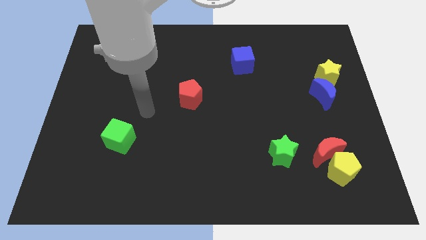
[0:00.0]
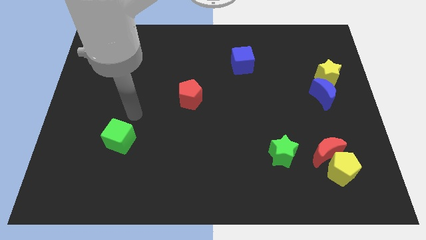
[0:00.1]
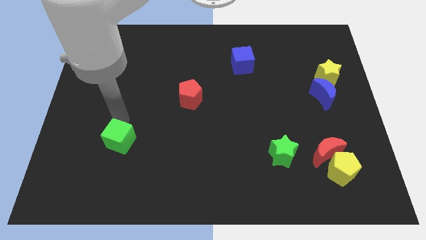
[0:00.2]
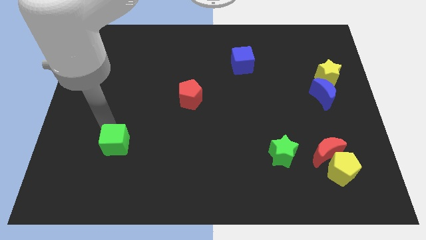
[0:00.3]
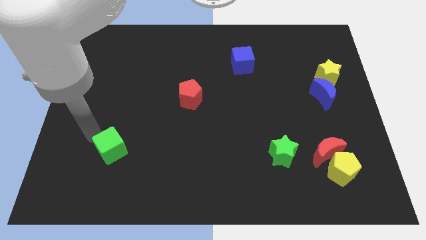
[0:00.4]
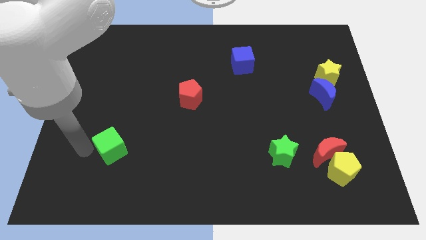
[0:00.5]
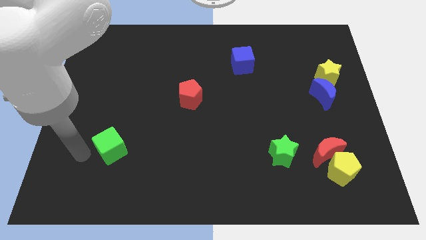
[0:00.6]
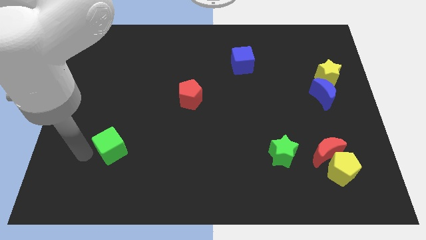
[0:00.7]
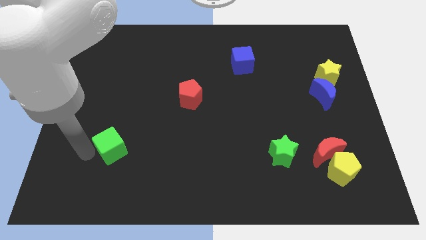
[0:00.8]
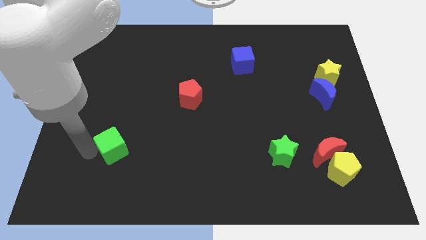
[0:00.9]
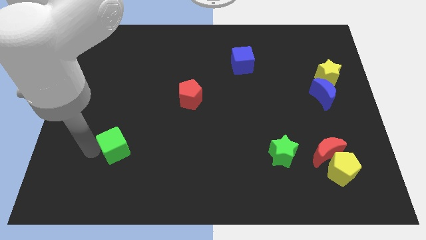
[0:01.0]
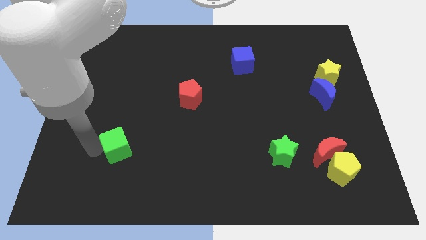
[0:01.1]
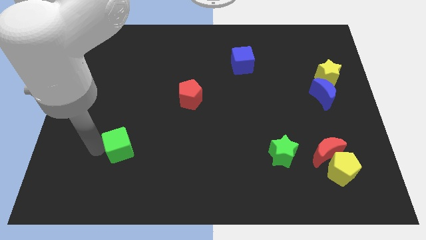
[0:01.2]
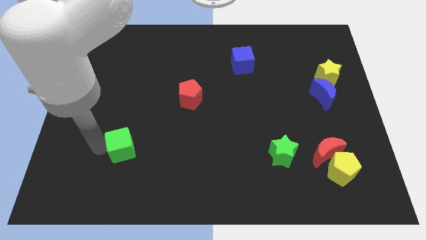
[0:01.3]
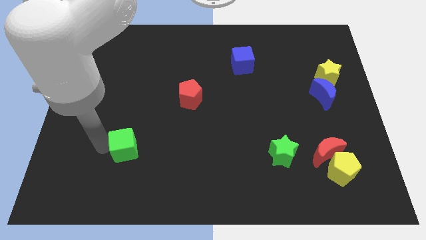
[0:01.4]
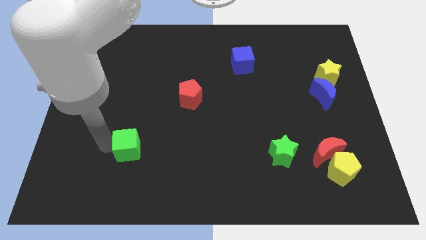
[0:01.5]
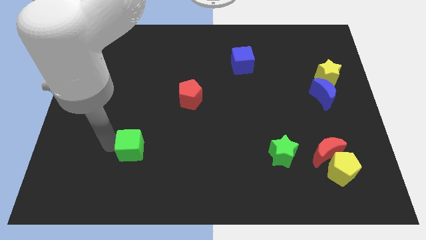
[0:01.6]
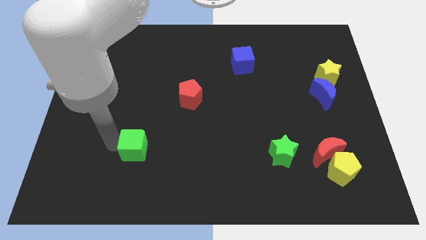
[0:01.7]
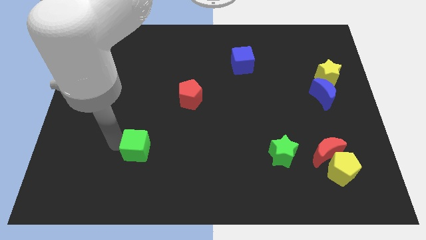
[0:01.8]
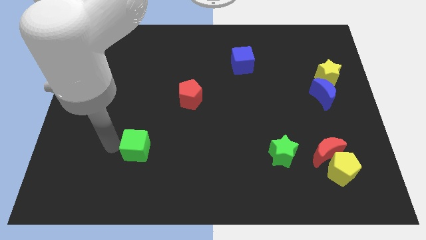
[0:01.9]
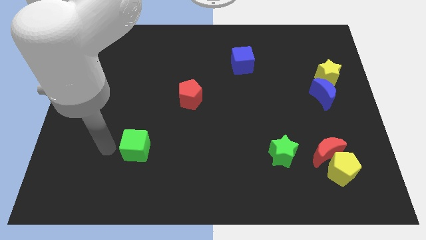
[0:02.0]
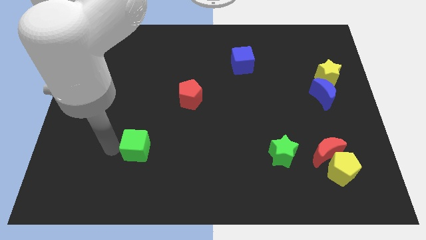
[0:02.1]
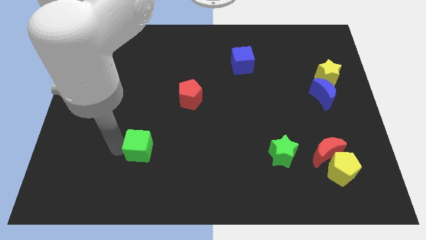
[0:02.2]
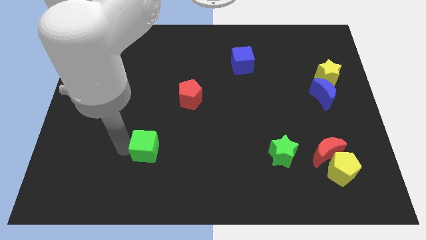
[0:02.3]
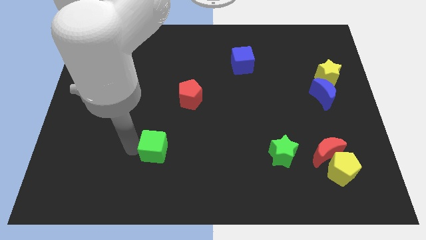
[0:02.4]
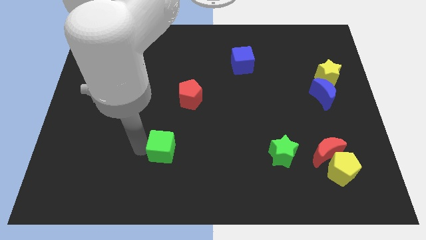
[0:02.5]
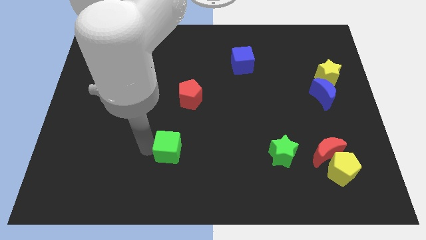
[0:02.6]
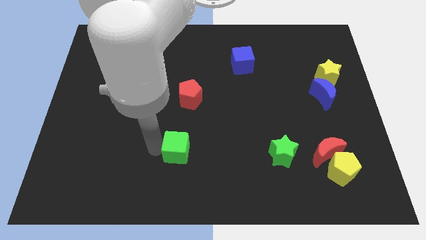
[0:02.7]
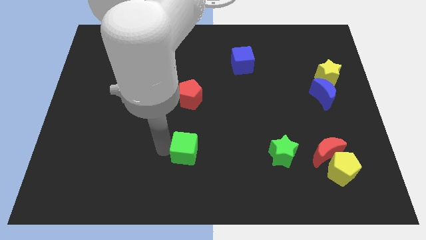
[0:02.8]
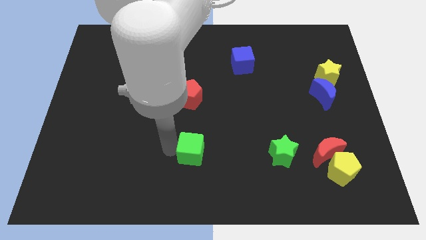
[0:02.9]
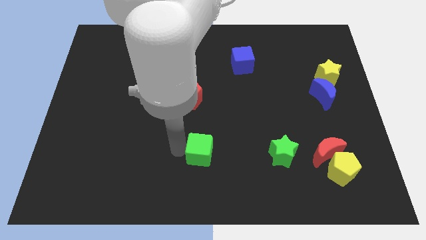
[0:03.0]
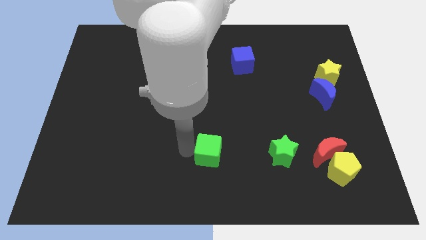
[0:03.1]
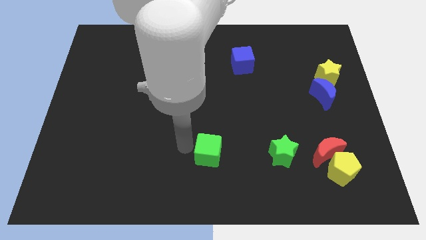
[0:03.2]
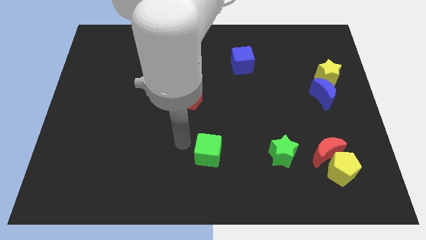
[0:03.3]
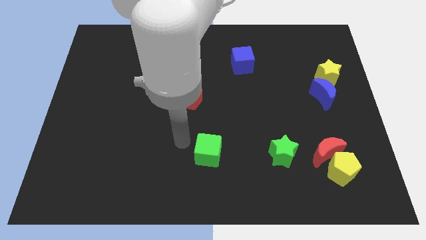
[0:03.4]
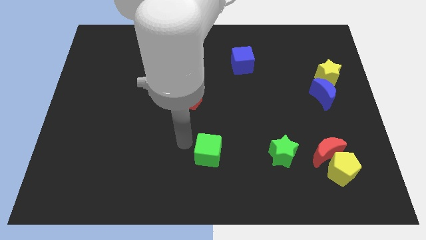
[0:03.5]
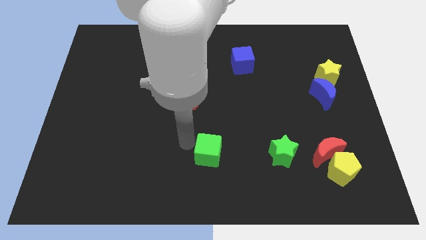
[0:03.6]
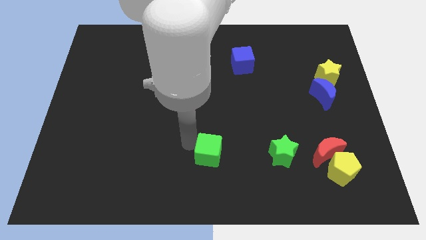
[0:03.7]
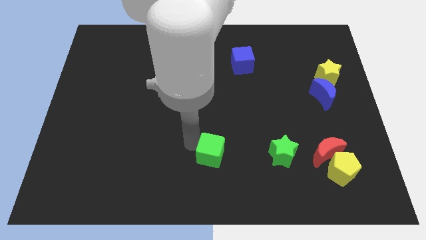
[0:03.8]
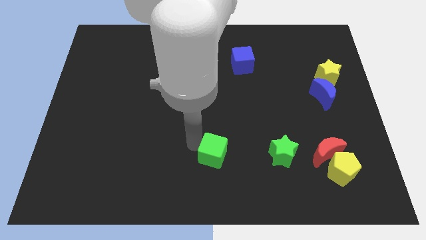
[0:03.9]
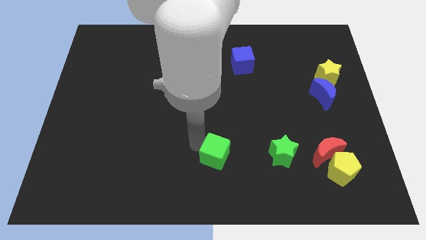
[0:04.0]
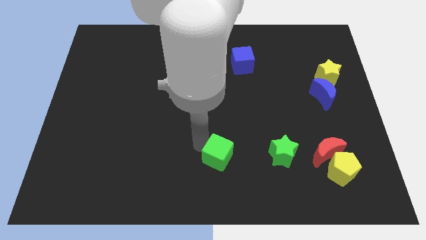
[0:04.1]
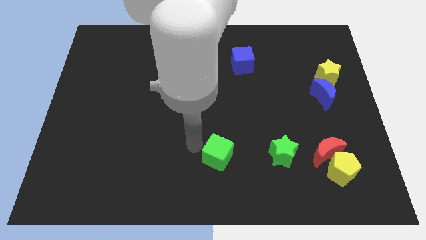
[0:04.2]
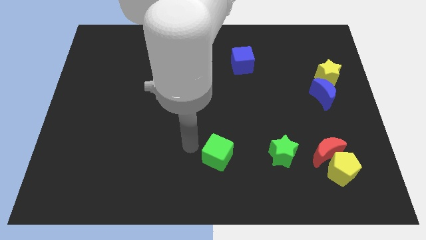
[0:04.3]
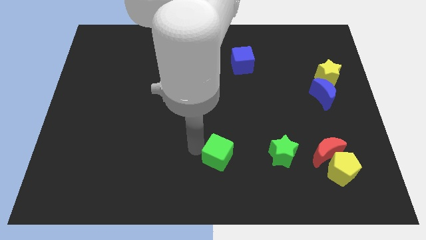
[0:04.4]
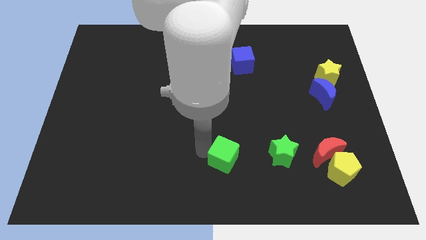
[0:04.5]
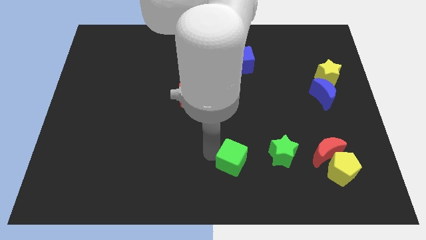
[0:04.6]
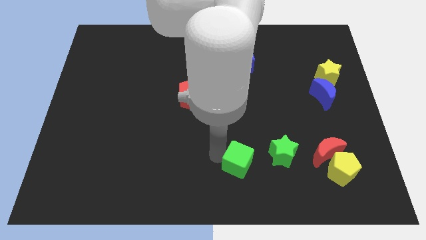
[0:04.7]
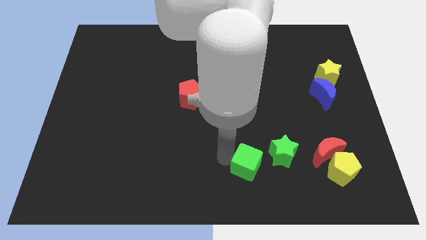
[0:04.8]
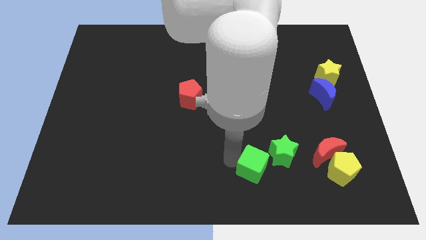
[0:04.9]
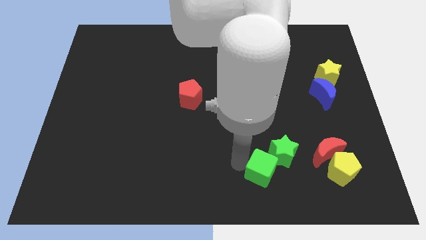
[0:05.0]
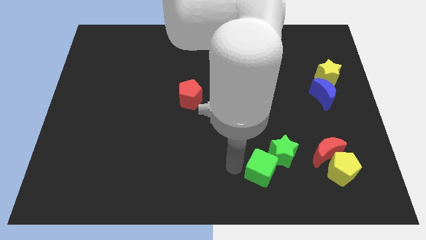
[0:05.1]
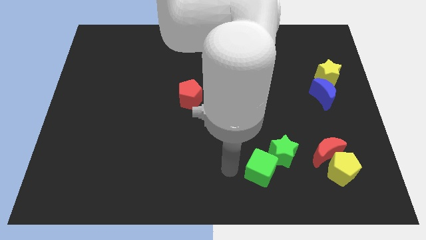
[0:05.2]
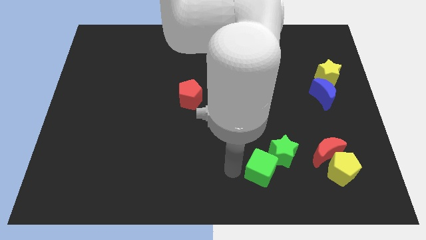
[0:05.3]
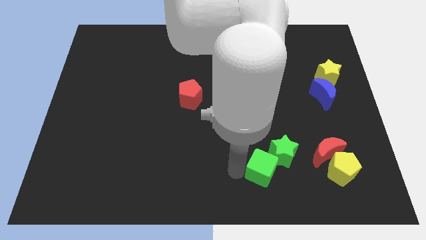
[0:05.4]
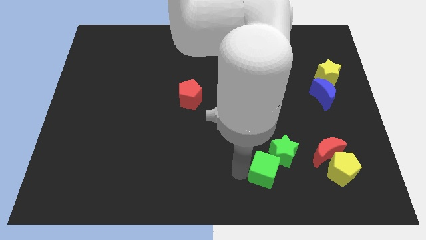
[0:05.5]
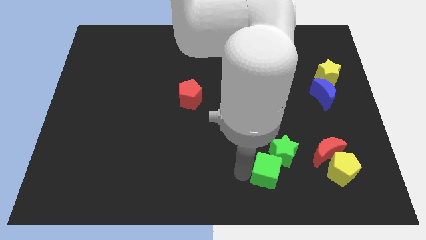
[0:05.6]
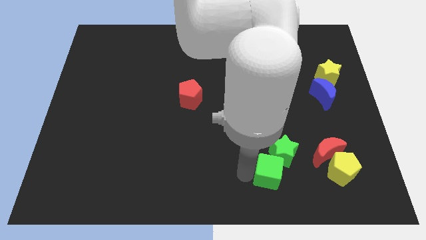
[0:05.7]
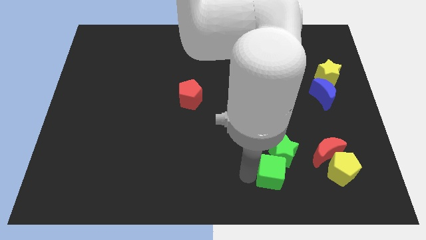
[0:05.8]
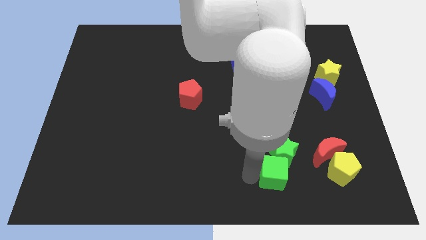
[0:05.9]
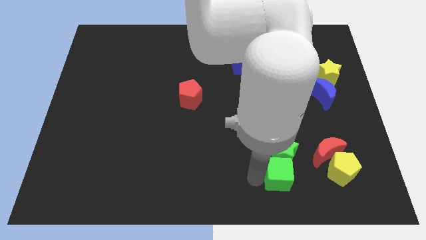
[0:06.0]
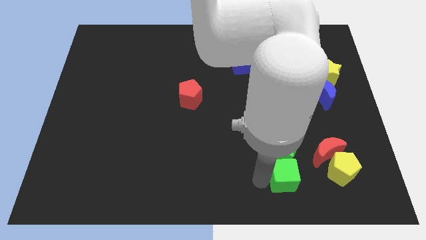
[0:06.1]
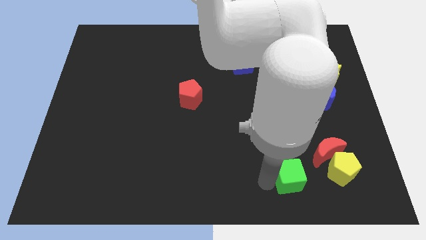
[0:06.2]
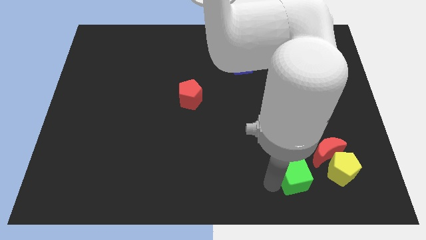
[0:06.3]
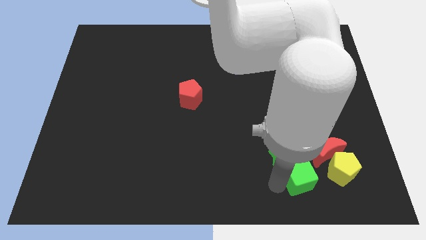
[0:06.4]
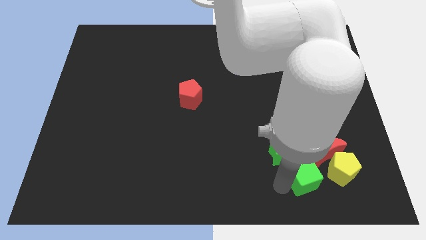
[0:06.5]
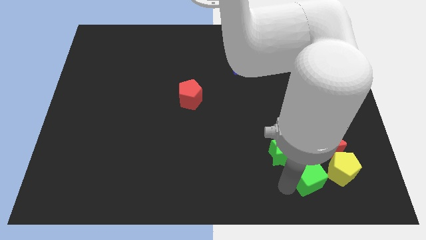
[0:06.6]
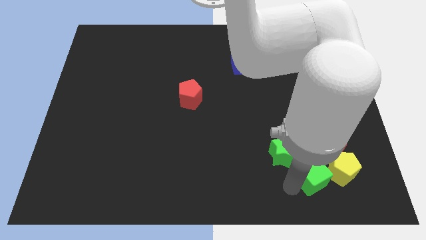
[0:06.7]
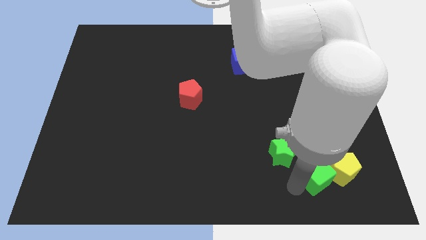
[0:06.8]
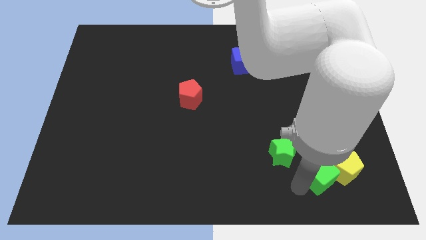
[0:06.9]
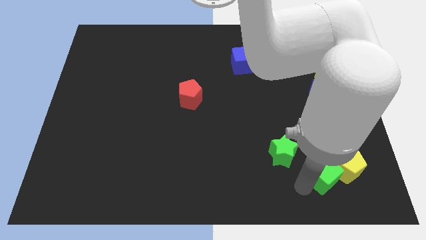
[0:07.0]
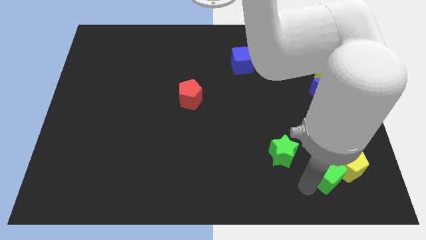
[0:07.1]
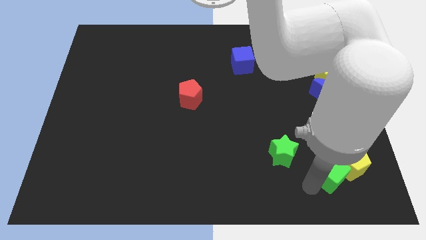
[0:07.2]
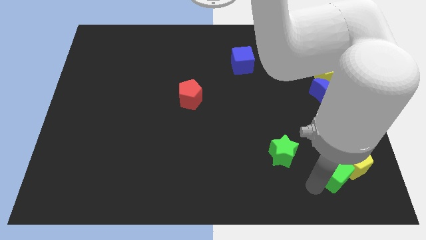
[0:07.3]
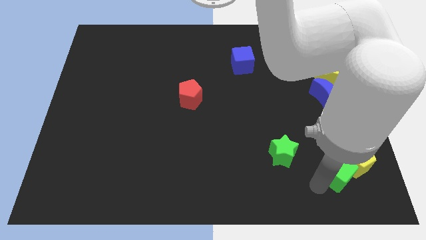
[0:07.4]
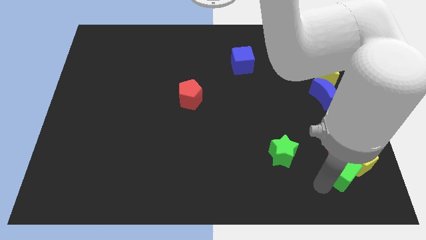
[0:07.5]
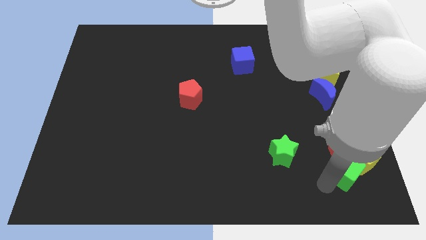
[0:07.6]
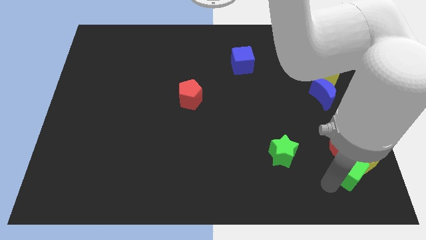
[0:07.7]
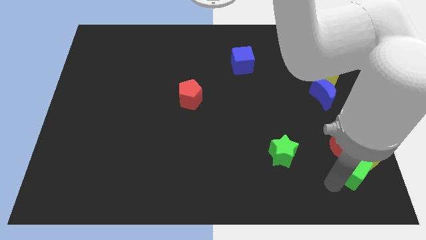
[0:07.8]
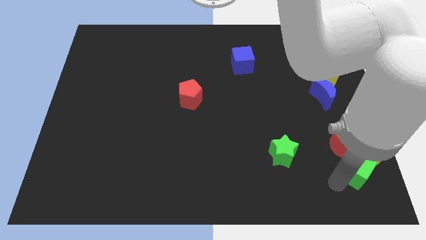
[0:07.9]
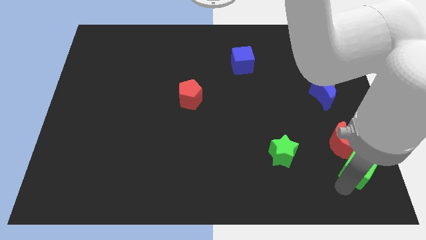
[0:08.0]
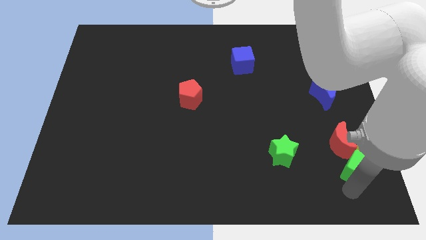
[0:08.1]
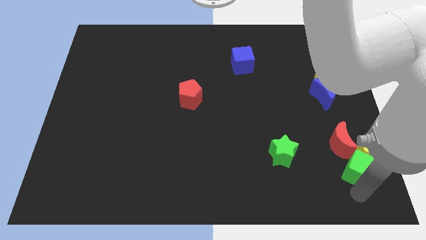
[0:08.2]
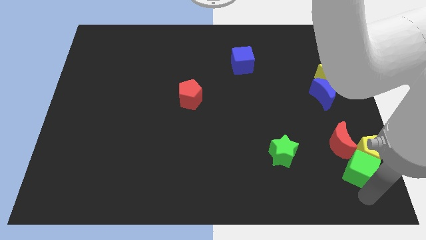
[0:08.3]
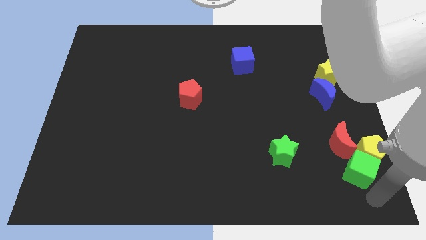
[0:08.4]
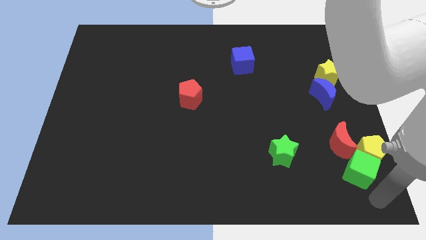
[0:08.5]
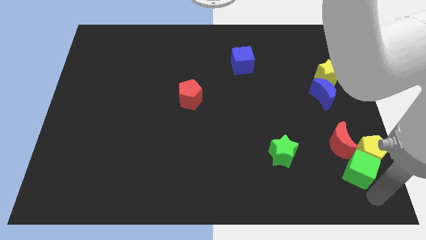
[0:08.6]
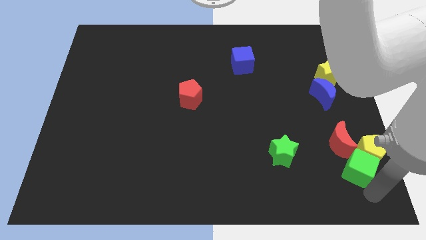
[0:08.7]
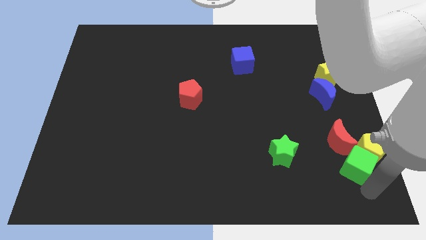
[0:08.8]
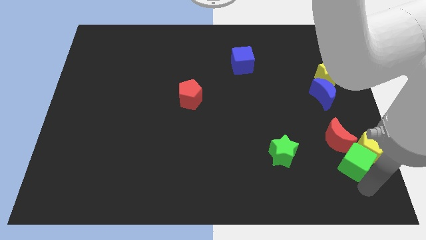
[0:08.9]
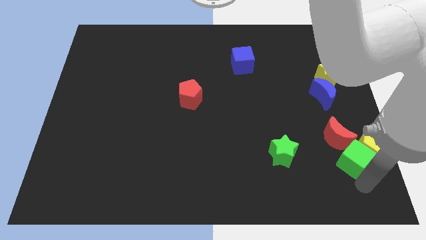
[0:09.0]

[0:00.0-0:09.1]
put the green cube close to the red moon
